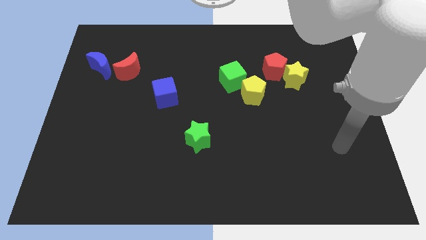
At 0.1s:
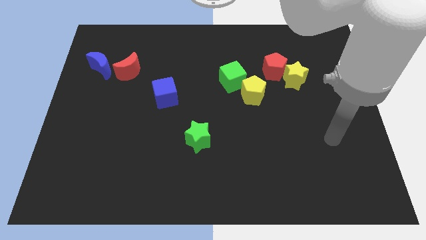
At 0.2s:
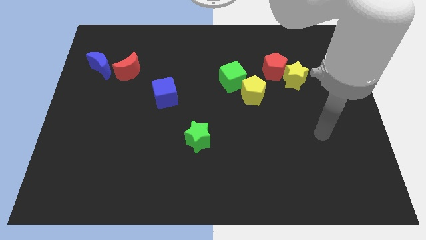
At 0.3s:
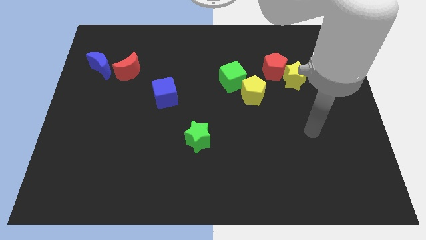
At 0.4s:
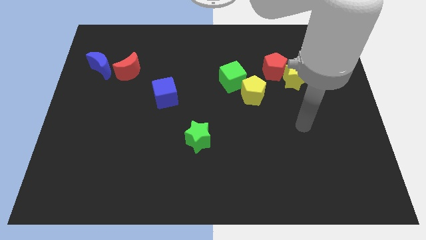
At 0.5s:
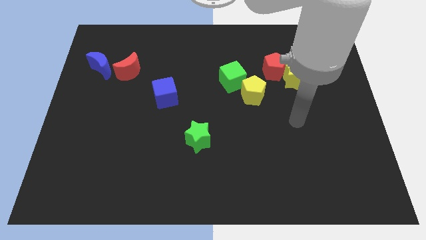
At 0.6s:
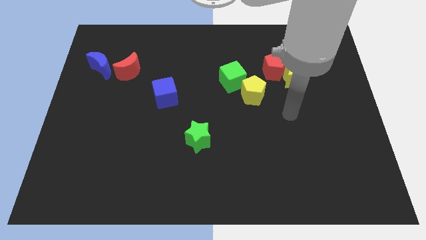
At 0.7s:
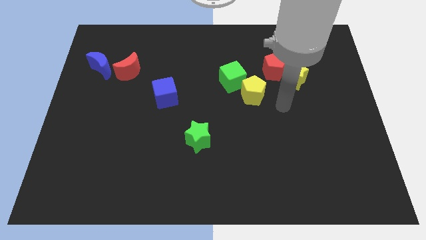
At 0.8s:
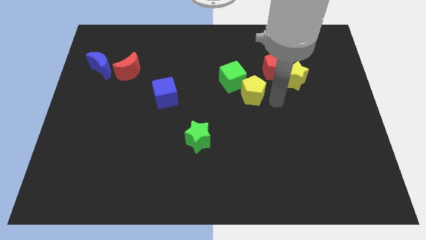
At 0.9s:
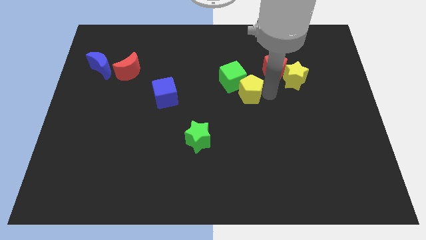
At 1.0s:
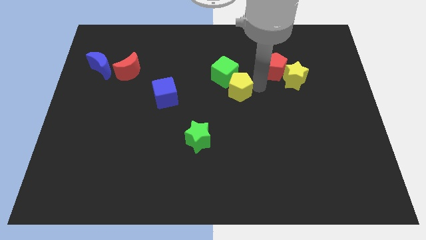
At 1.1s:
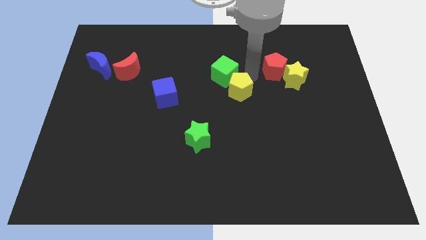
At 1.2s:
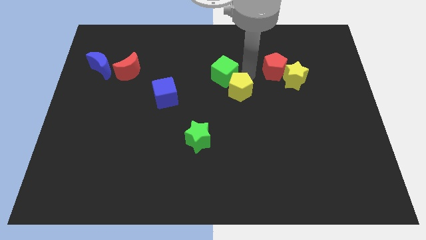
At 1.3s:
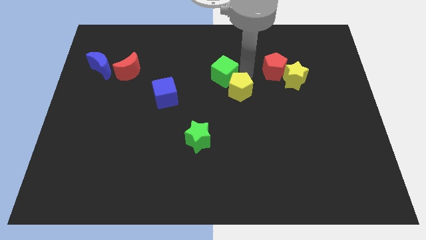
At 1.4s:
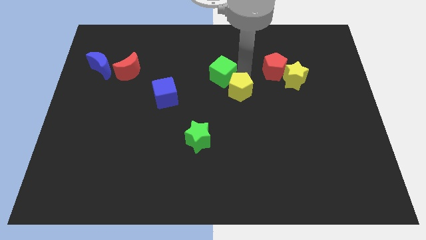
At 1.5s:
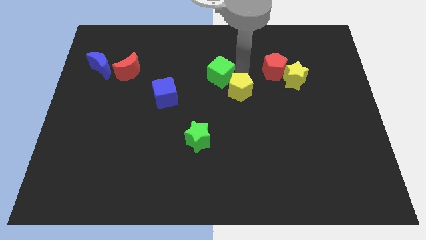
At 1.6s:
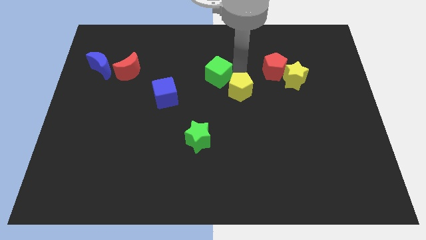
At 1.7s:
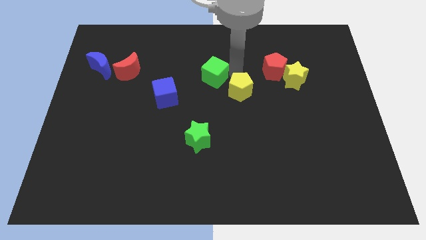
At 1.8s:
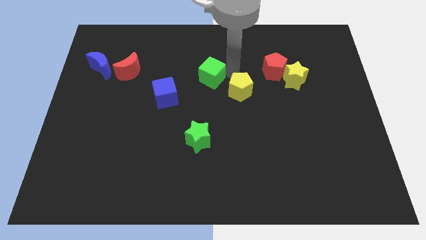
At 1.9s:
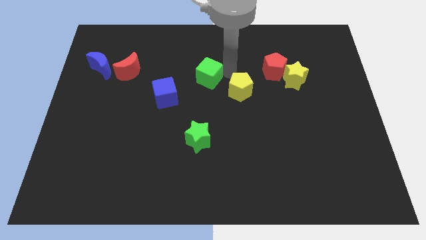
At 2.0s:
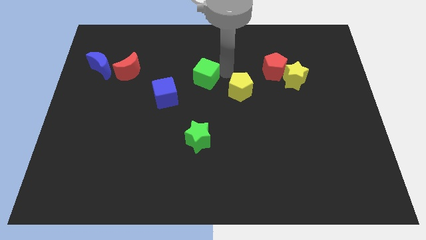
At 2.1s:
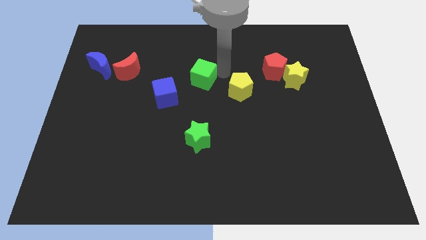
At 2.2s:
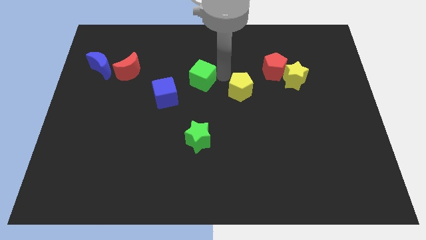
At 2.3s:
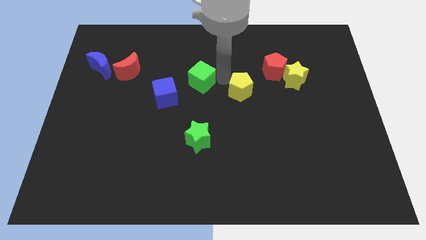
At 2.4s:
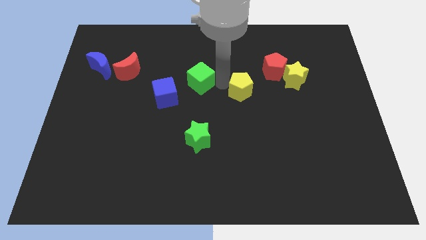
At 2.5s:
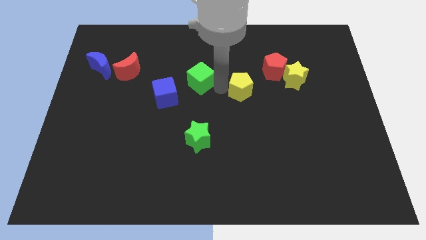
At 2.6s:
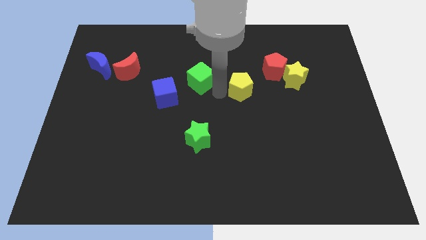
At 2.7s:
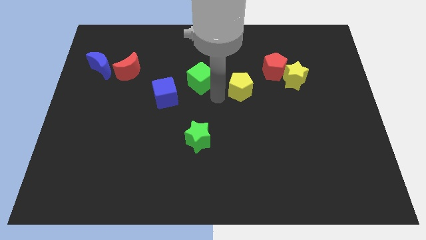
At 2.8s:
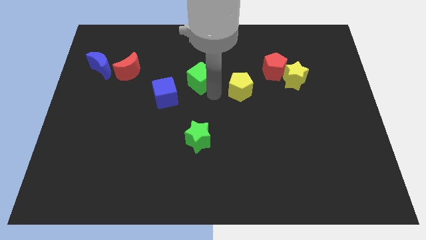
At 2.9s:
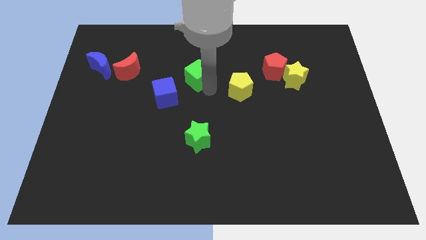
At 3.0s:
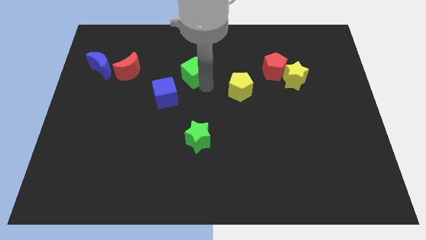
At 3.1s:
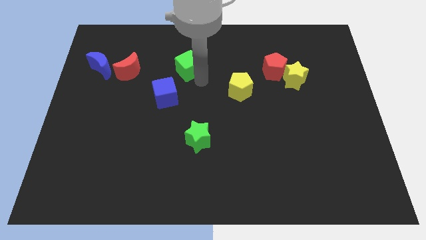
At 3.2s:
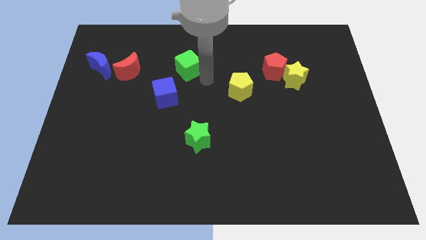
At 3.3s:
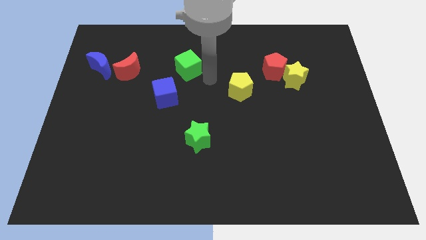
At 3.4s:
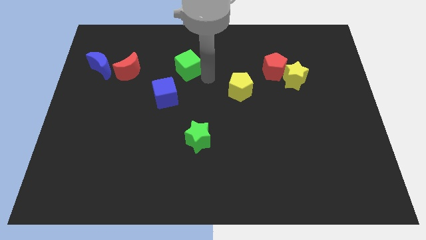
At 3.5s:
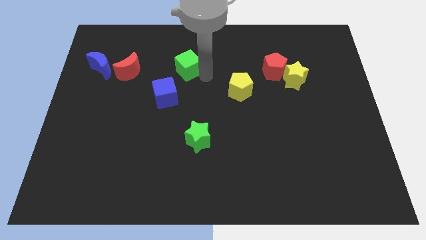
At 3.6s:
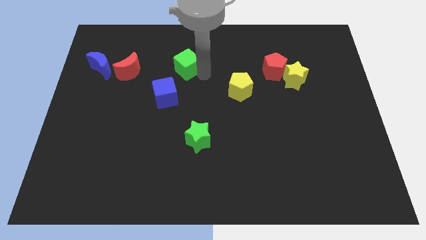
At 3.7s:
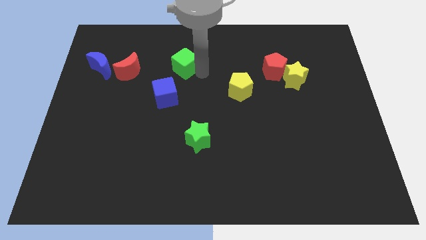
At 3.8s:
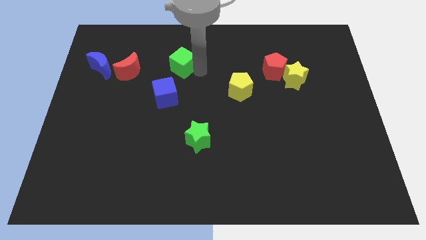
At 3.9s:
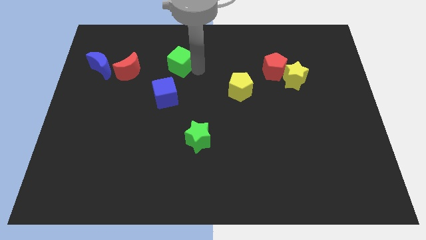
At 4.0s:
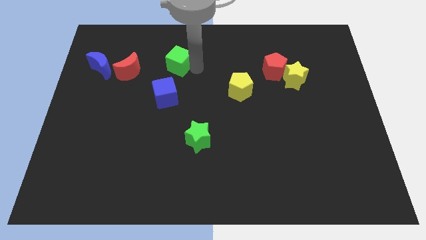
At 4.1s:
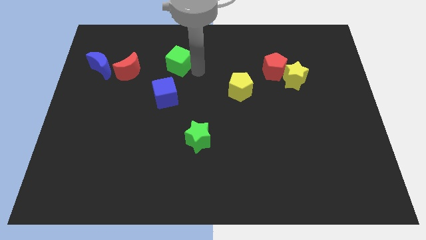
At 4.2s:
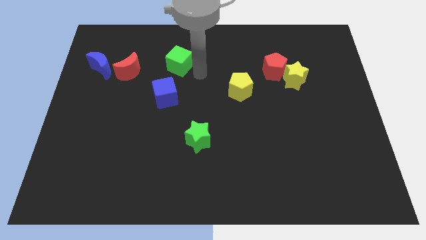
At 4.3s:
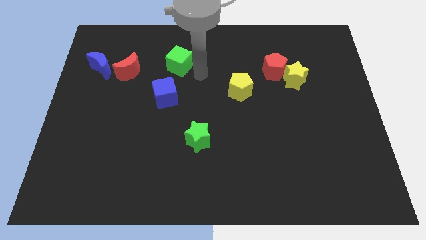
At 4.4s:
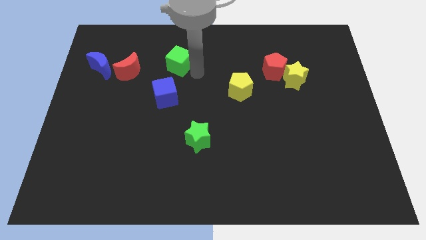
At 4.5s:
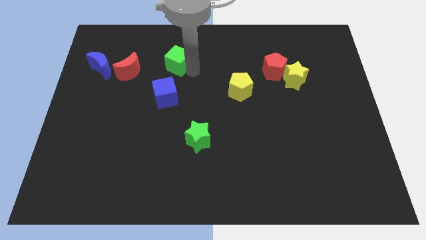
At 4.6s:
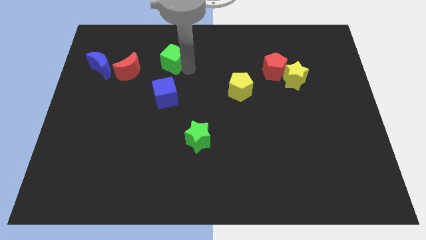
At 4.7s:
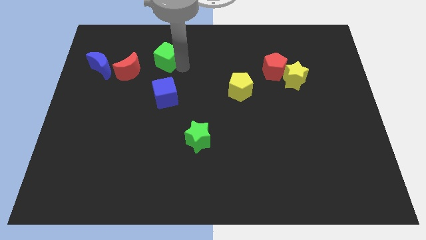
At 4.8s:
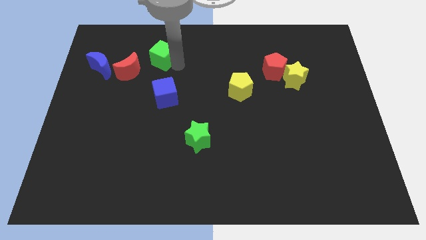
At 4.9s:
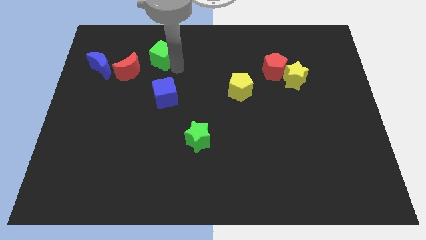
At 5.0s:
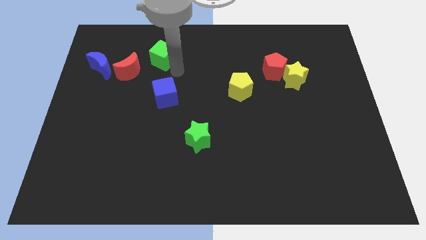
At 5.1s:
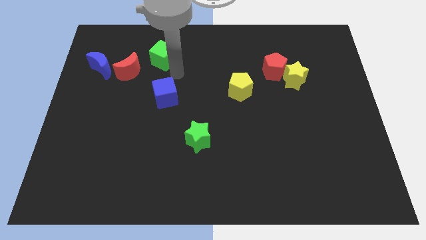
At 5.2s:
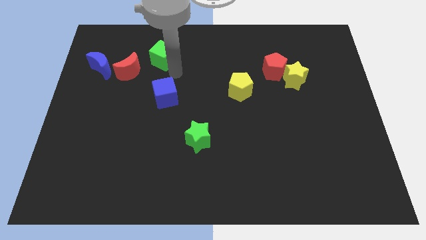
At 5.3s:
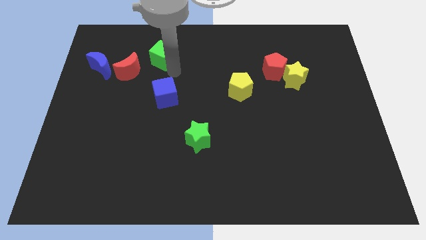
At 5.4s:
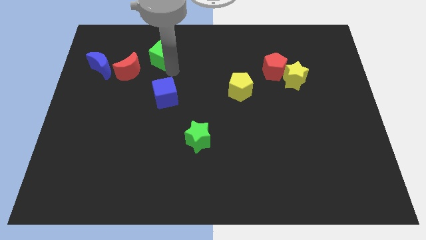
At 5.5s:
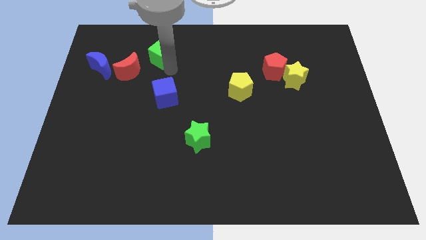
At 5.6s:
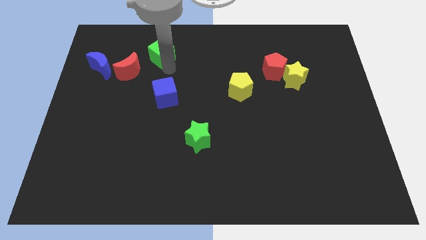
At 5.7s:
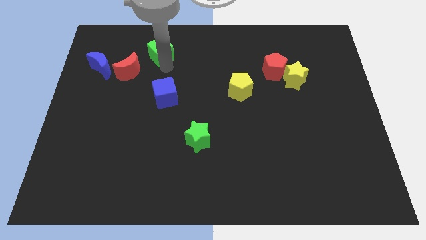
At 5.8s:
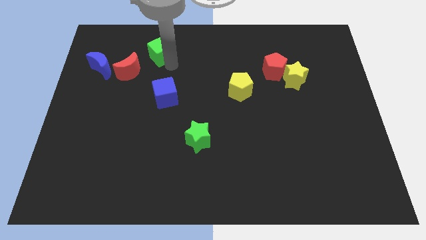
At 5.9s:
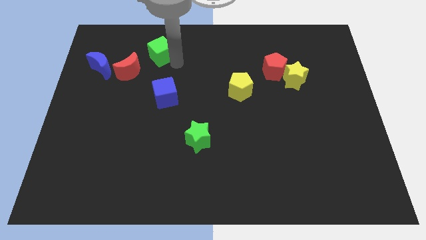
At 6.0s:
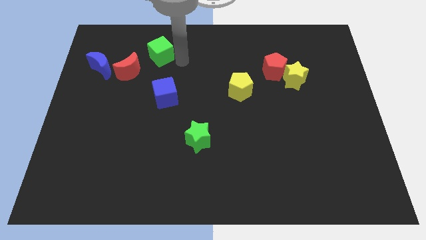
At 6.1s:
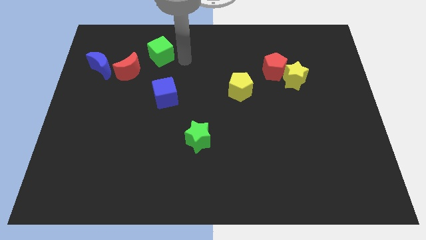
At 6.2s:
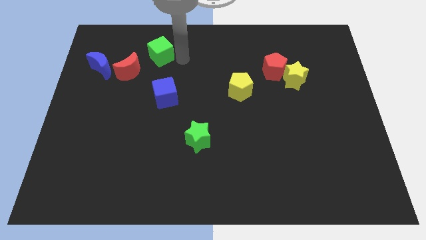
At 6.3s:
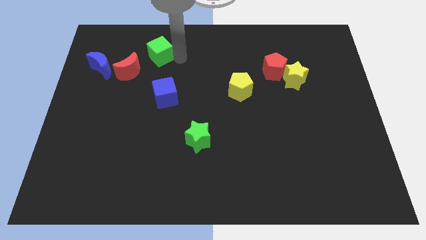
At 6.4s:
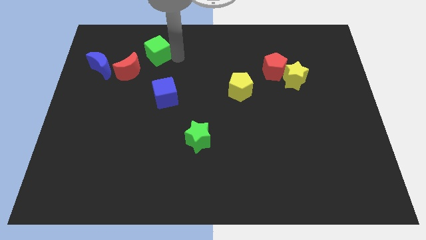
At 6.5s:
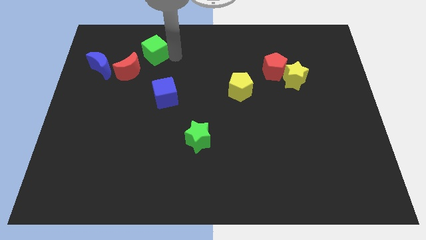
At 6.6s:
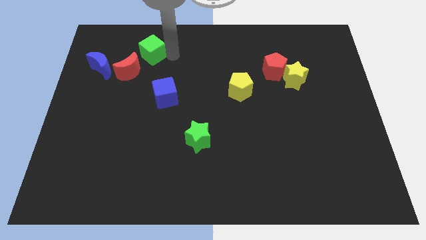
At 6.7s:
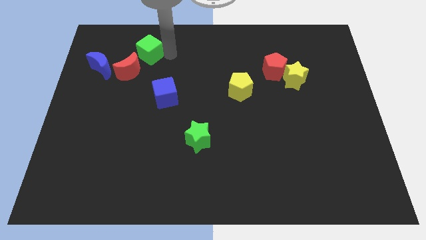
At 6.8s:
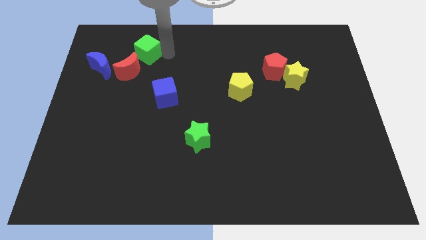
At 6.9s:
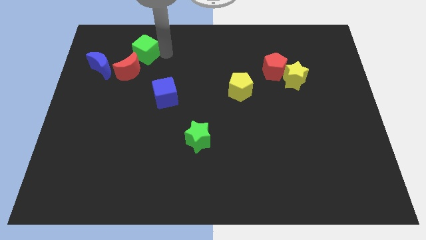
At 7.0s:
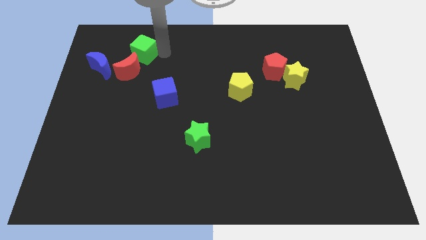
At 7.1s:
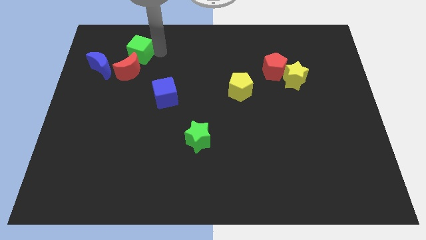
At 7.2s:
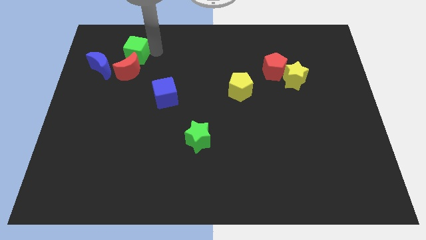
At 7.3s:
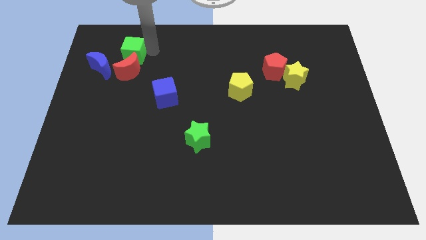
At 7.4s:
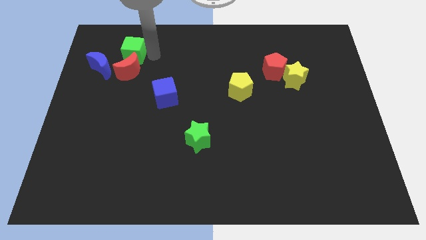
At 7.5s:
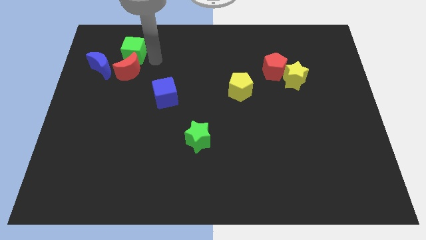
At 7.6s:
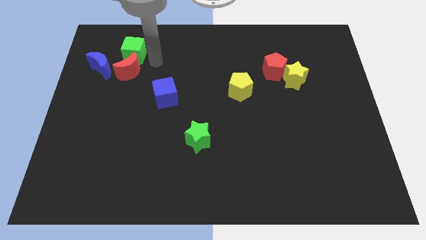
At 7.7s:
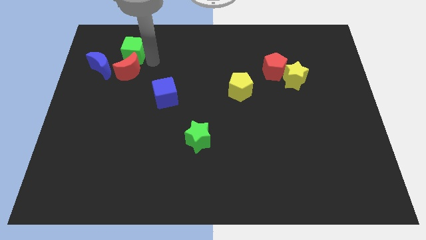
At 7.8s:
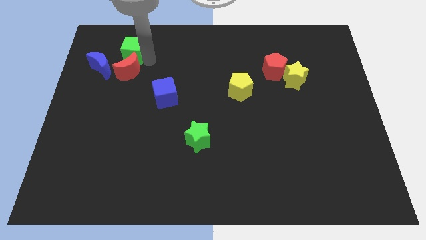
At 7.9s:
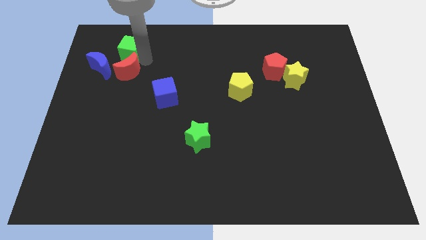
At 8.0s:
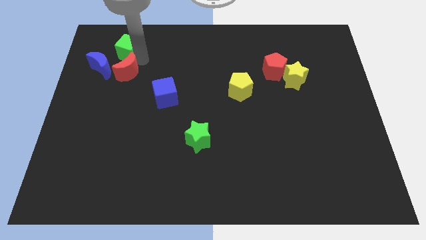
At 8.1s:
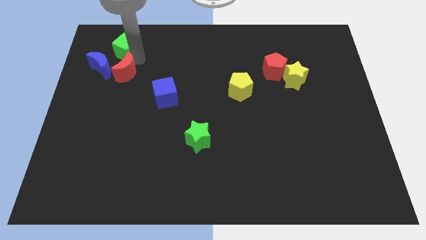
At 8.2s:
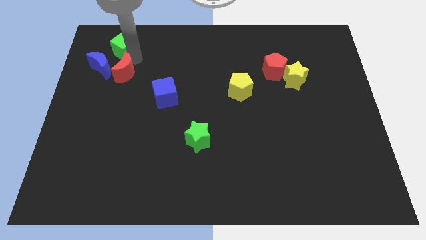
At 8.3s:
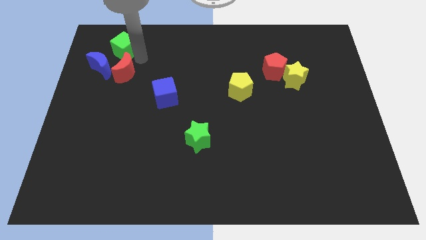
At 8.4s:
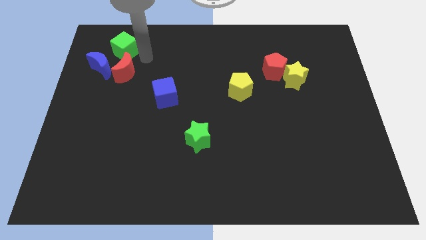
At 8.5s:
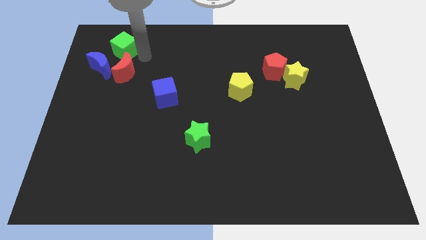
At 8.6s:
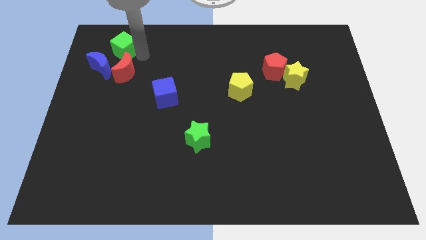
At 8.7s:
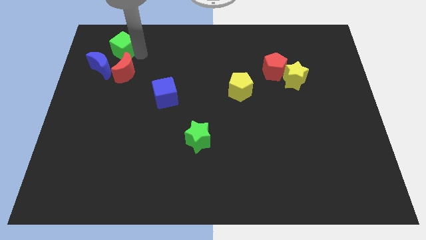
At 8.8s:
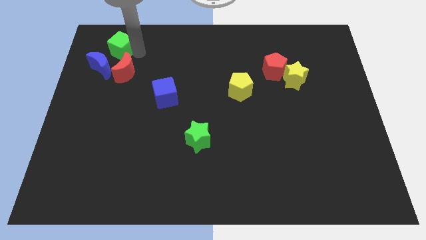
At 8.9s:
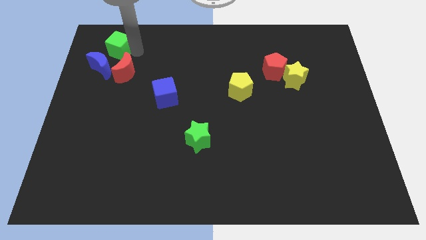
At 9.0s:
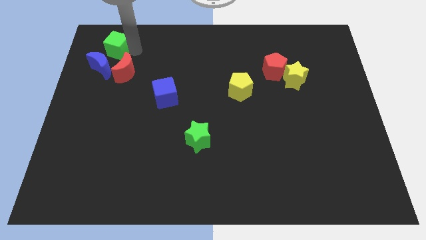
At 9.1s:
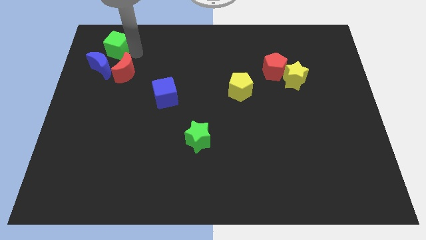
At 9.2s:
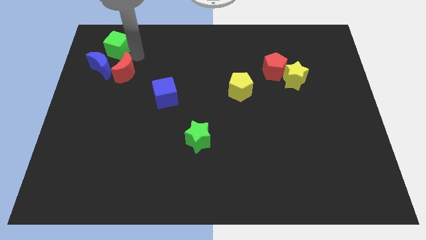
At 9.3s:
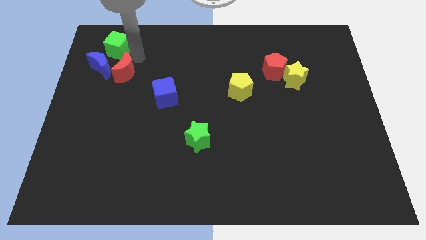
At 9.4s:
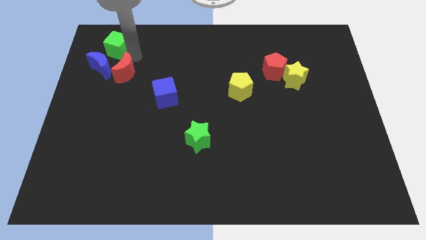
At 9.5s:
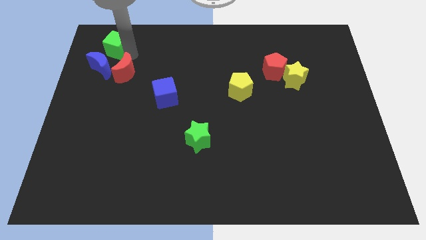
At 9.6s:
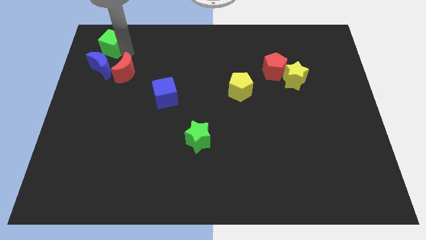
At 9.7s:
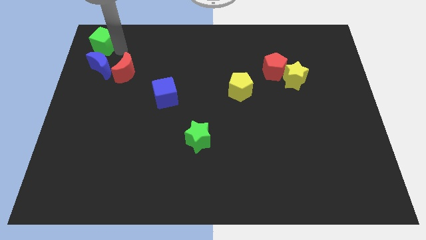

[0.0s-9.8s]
slide the green cube to the upper left corner
